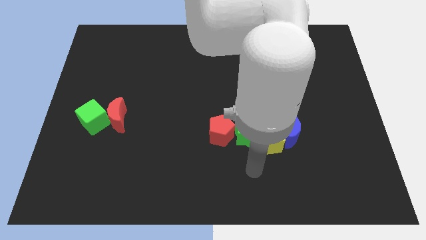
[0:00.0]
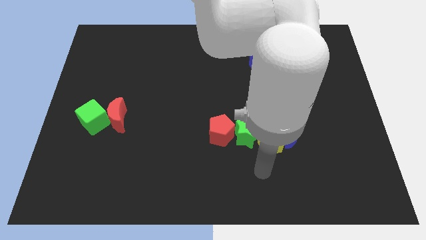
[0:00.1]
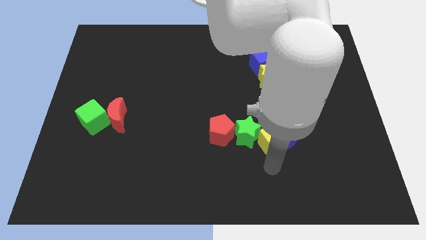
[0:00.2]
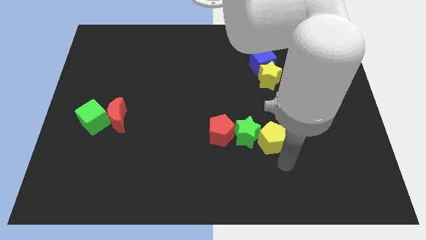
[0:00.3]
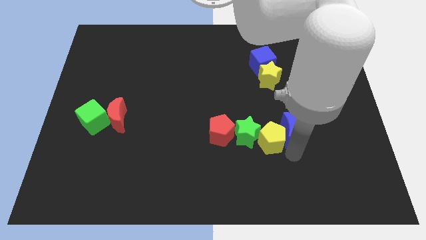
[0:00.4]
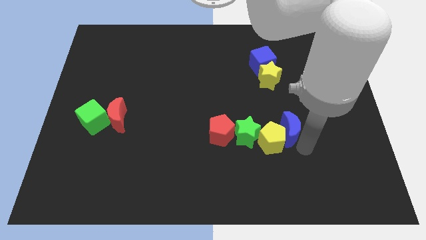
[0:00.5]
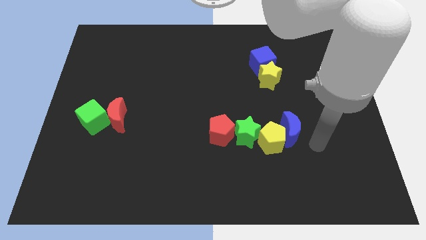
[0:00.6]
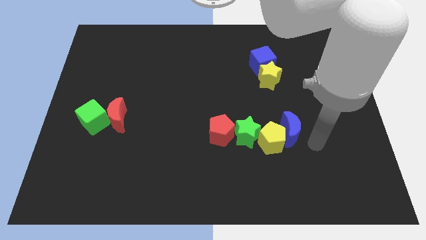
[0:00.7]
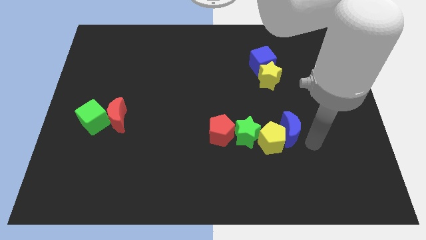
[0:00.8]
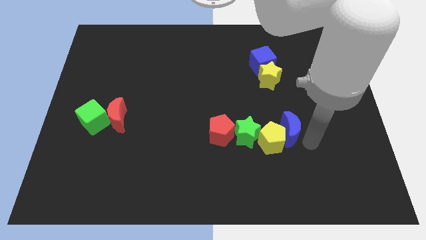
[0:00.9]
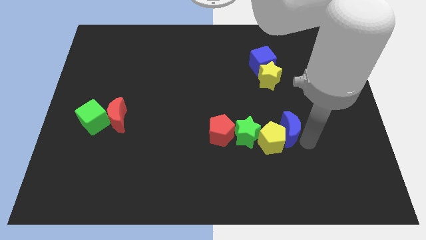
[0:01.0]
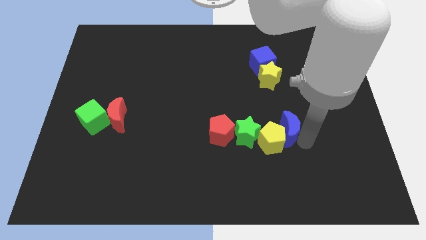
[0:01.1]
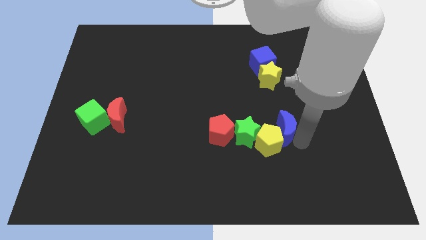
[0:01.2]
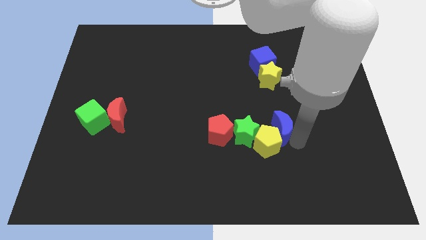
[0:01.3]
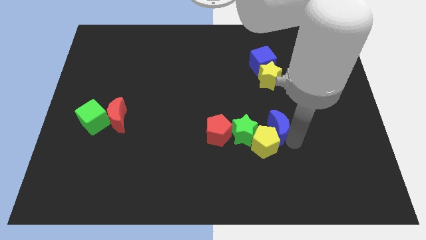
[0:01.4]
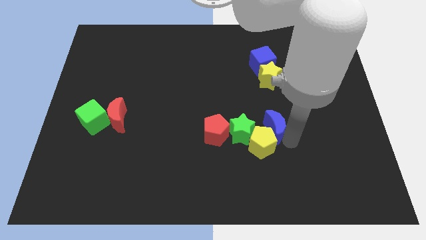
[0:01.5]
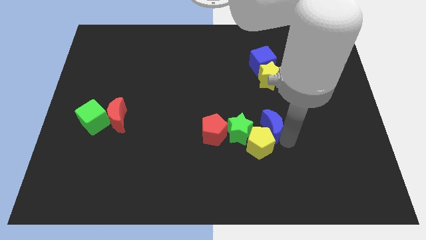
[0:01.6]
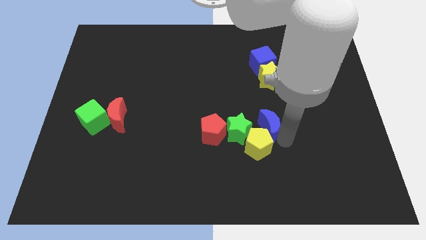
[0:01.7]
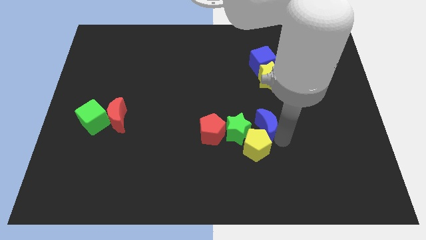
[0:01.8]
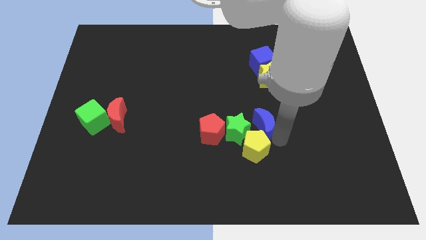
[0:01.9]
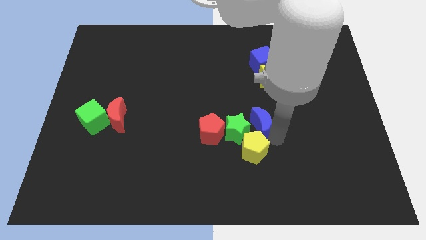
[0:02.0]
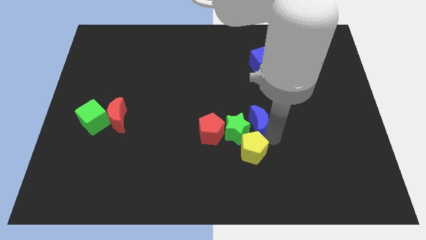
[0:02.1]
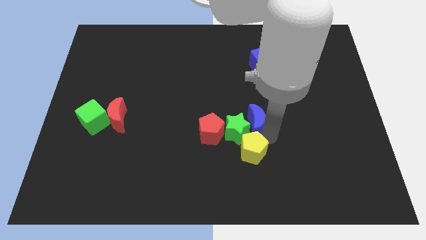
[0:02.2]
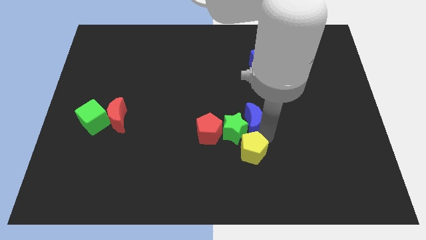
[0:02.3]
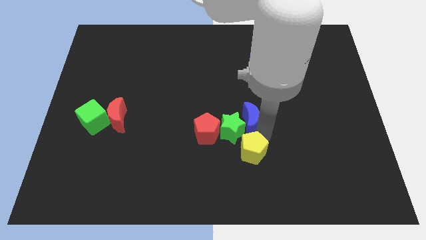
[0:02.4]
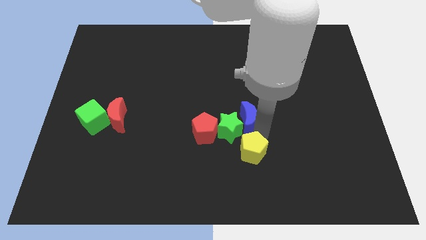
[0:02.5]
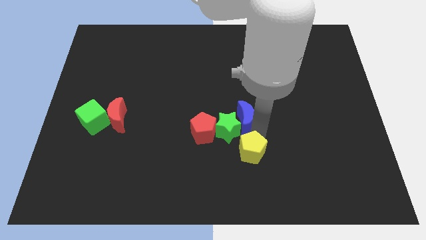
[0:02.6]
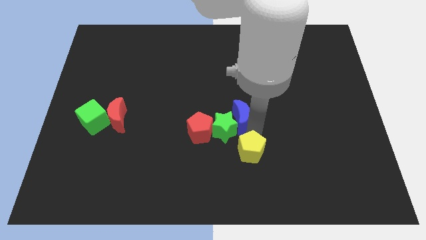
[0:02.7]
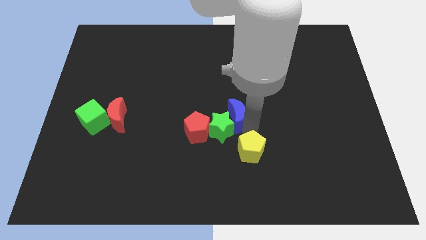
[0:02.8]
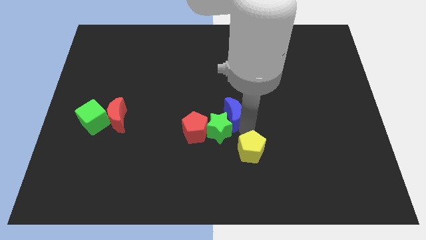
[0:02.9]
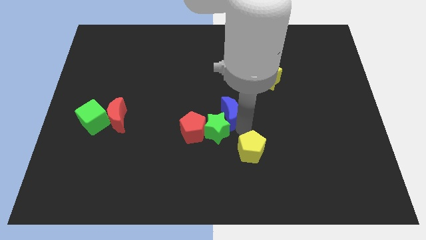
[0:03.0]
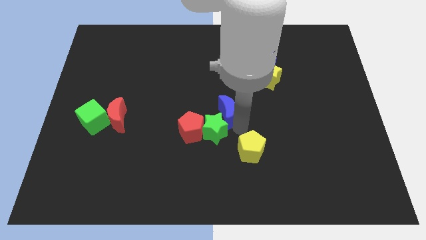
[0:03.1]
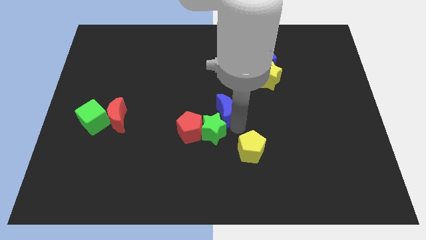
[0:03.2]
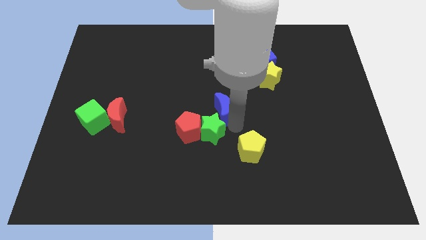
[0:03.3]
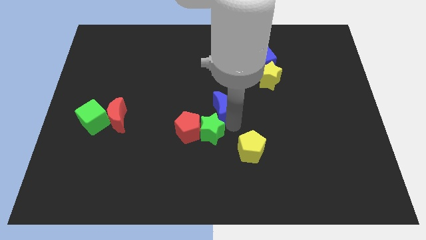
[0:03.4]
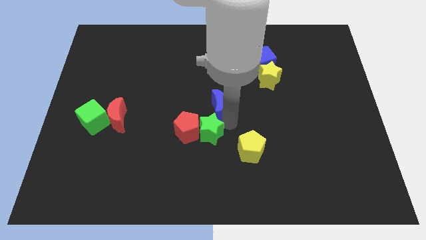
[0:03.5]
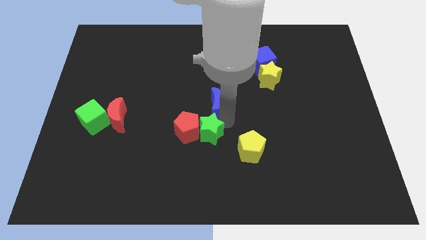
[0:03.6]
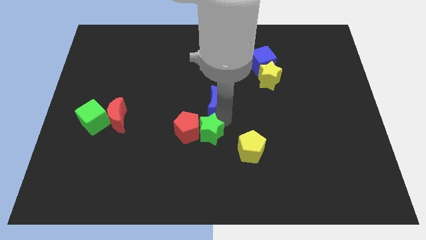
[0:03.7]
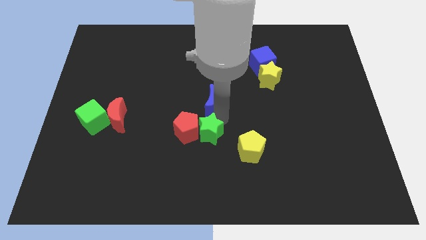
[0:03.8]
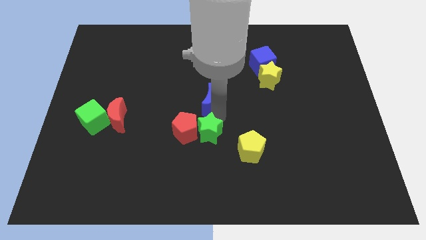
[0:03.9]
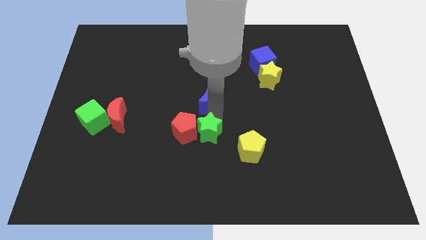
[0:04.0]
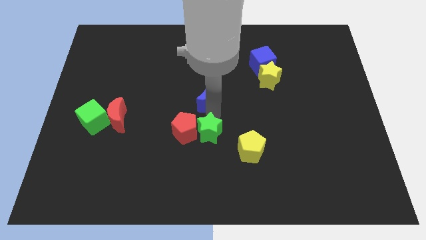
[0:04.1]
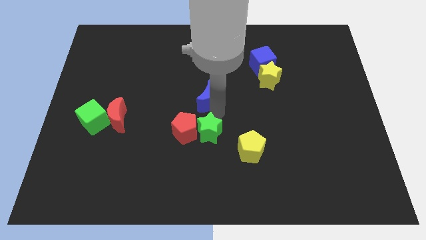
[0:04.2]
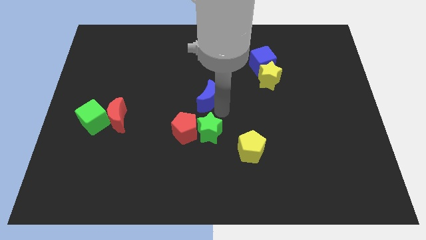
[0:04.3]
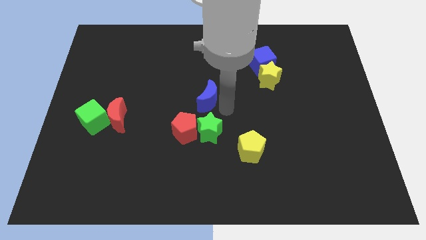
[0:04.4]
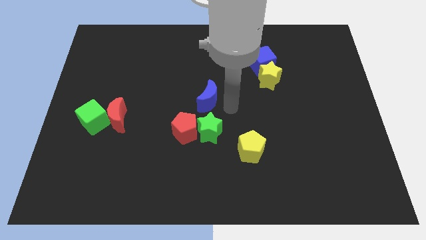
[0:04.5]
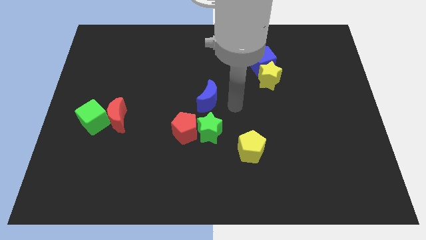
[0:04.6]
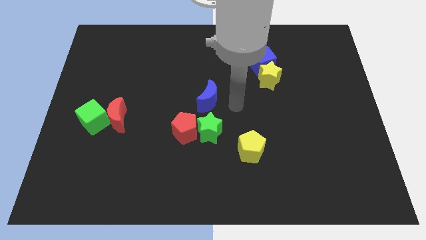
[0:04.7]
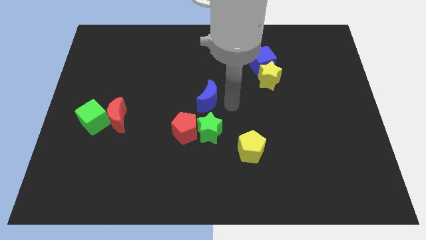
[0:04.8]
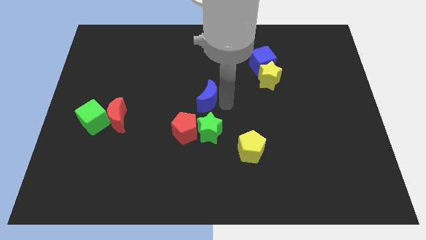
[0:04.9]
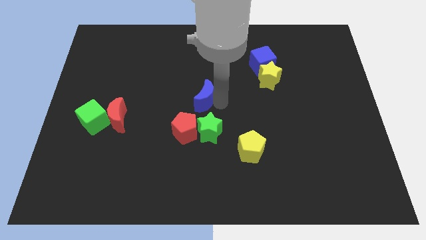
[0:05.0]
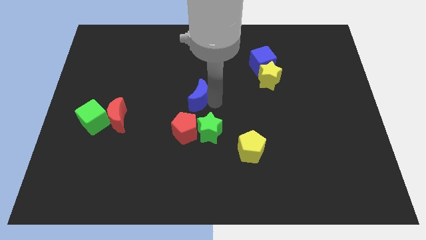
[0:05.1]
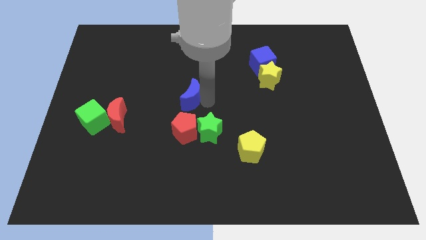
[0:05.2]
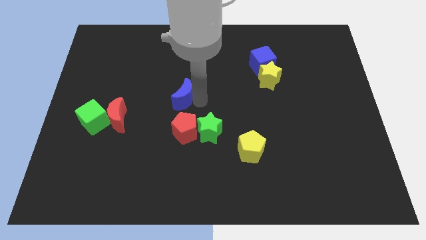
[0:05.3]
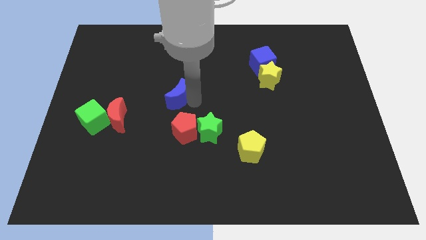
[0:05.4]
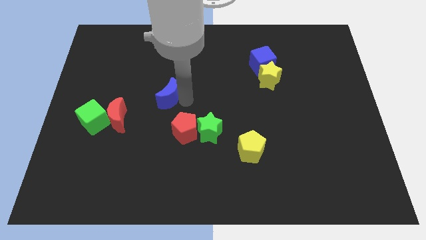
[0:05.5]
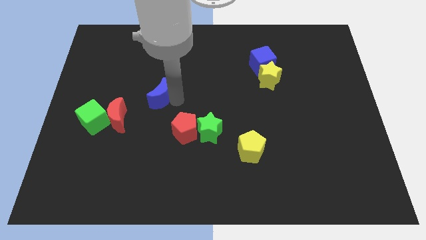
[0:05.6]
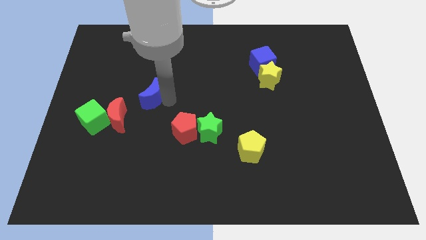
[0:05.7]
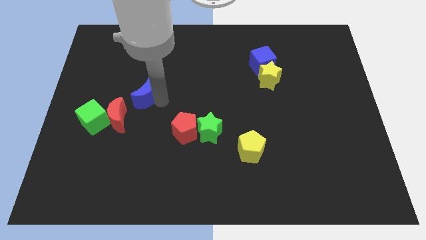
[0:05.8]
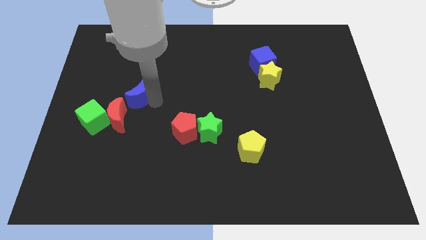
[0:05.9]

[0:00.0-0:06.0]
slide the blue moon to the top of the red moon

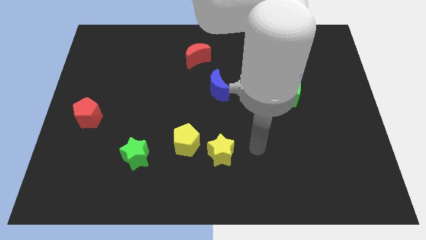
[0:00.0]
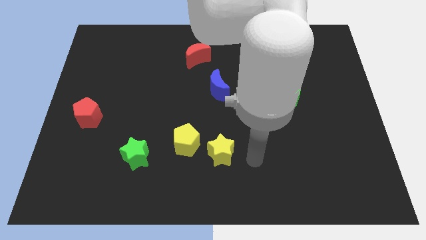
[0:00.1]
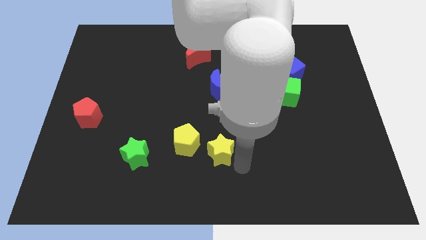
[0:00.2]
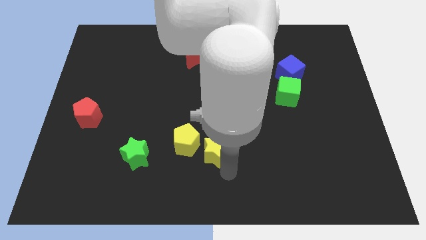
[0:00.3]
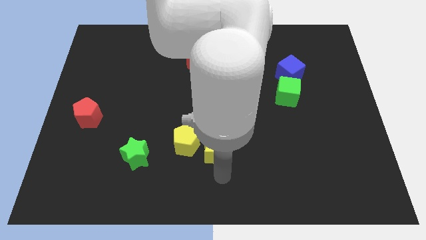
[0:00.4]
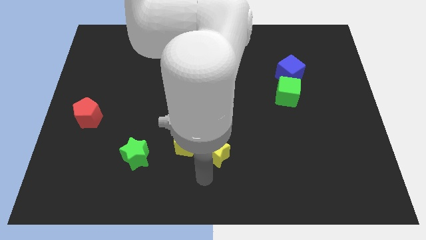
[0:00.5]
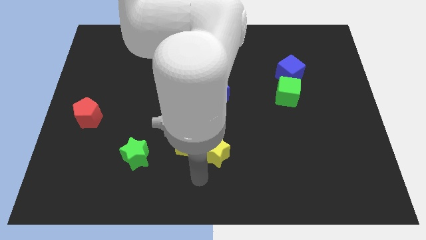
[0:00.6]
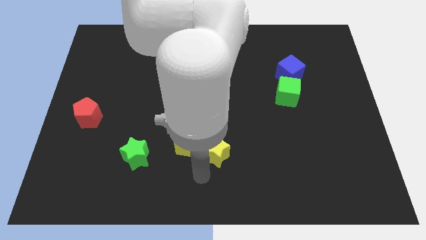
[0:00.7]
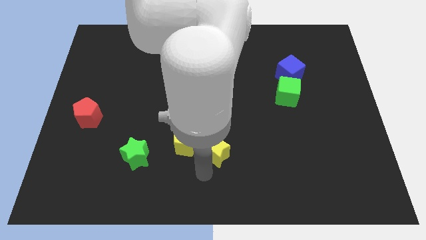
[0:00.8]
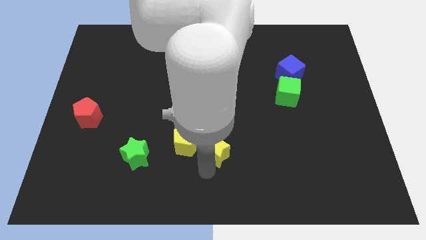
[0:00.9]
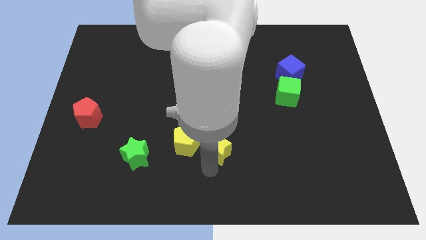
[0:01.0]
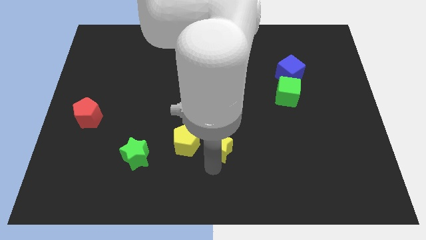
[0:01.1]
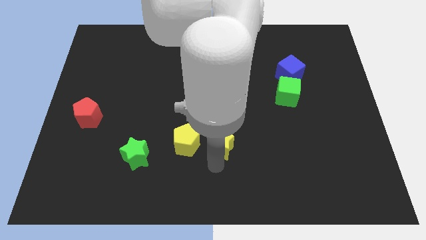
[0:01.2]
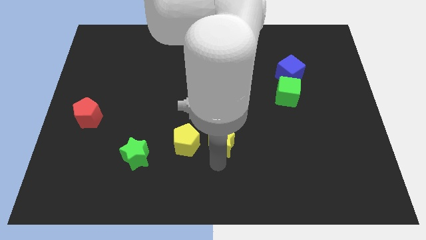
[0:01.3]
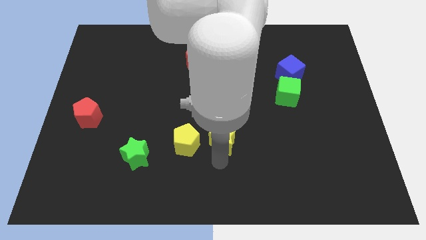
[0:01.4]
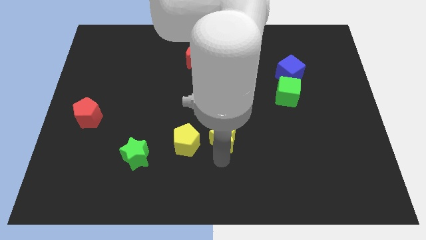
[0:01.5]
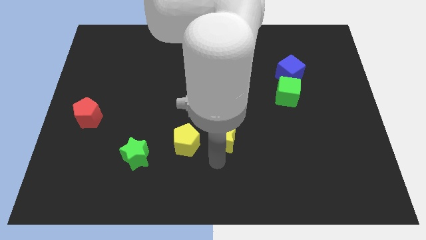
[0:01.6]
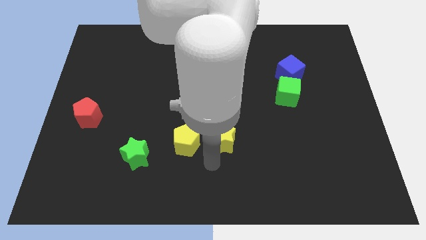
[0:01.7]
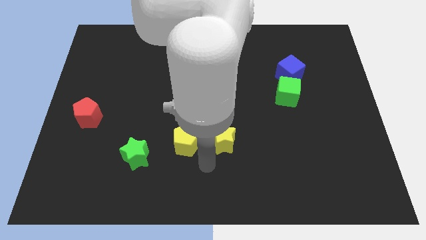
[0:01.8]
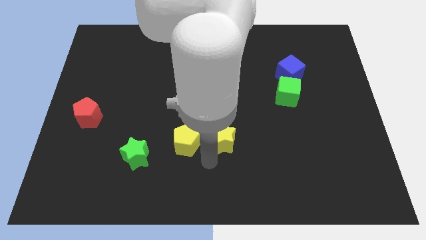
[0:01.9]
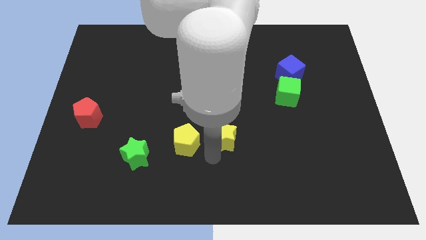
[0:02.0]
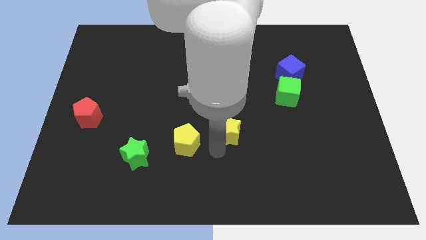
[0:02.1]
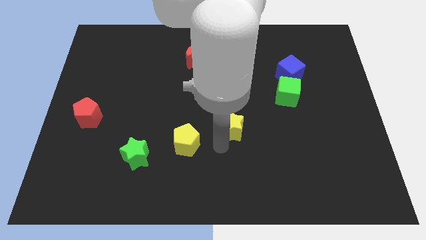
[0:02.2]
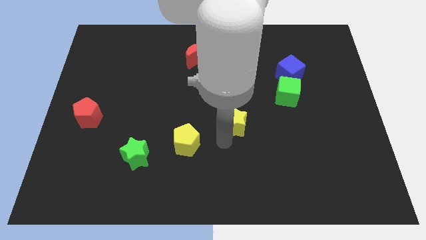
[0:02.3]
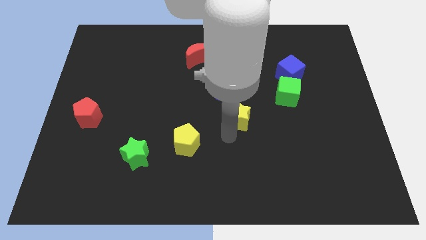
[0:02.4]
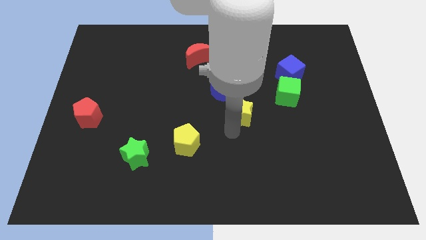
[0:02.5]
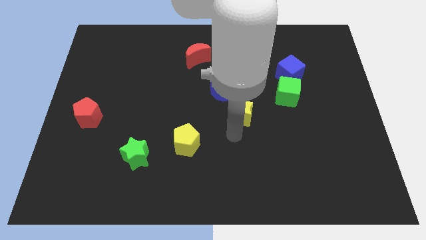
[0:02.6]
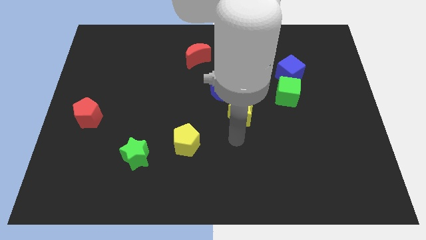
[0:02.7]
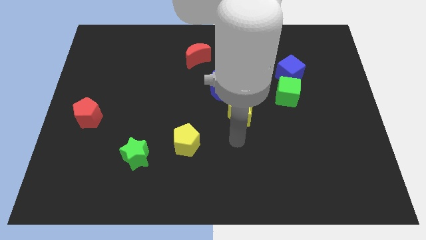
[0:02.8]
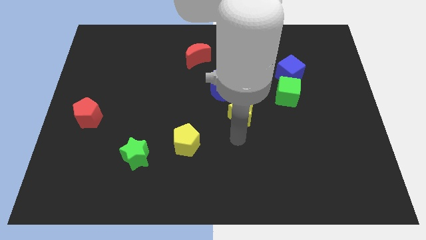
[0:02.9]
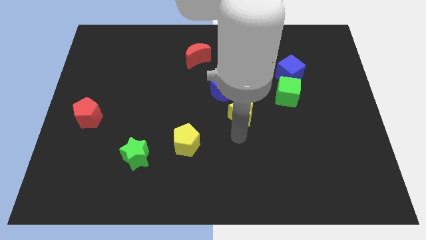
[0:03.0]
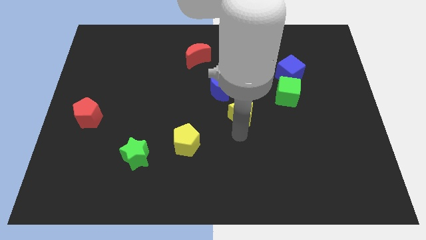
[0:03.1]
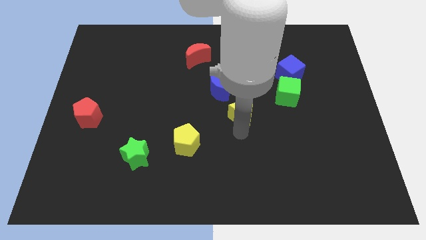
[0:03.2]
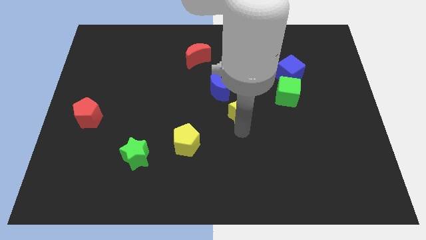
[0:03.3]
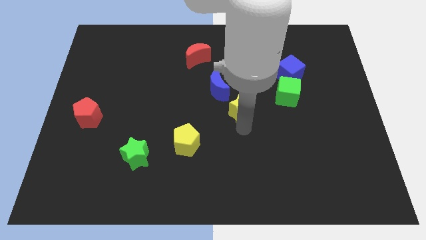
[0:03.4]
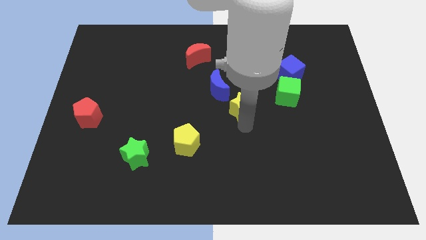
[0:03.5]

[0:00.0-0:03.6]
slide the yellow star to the left of the green cube
